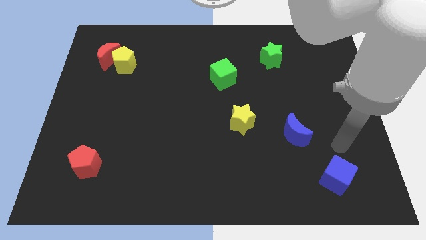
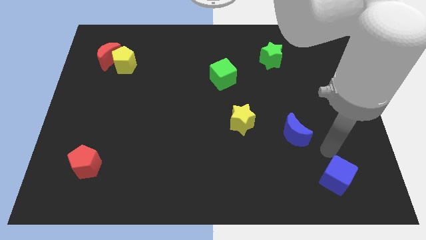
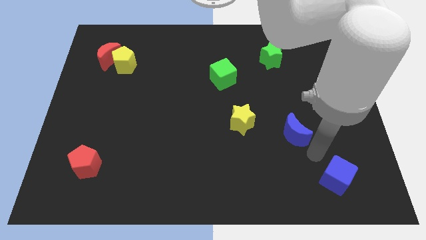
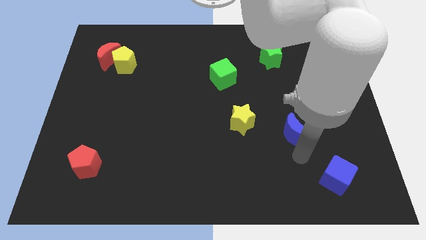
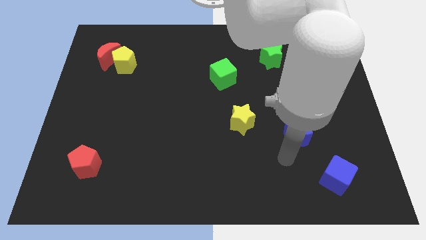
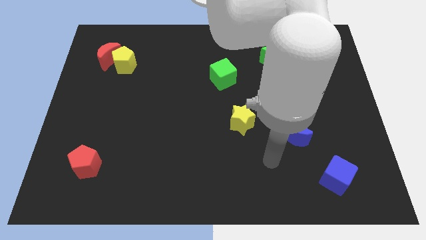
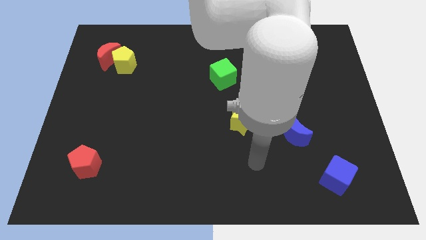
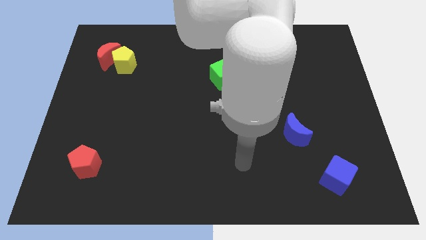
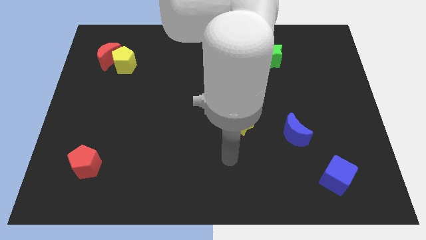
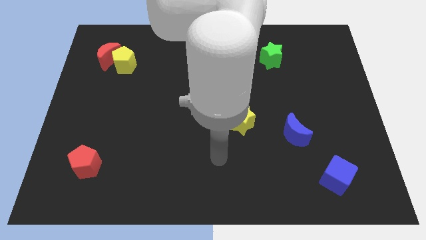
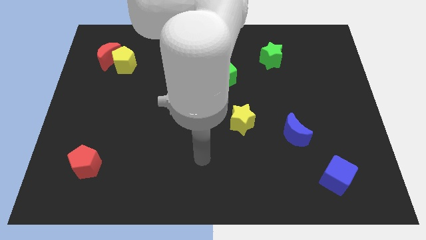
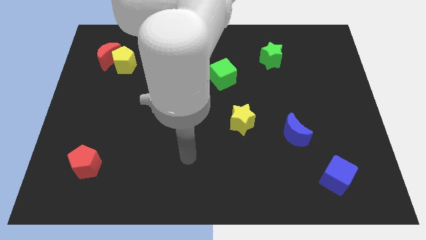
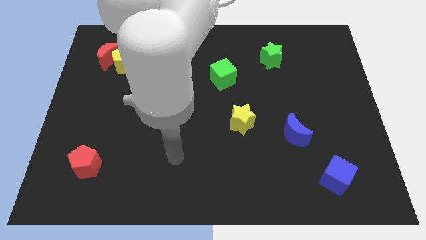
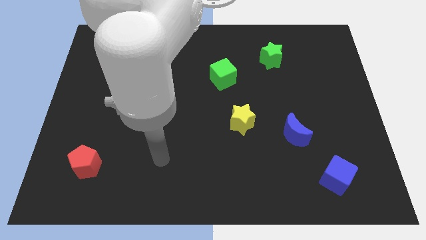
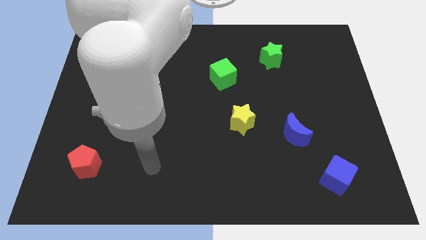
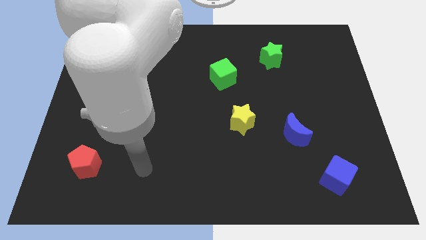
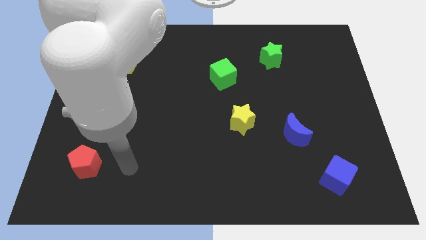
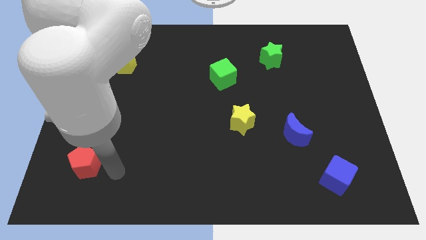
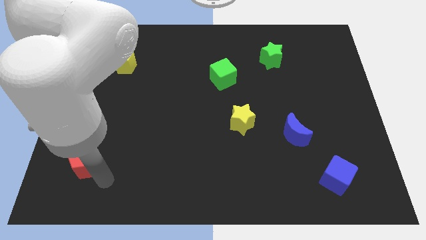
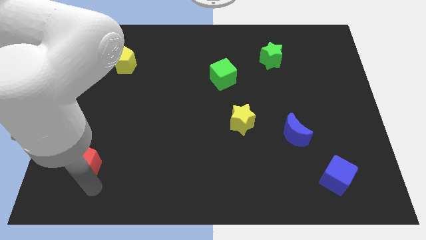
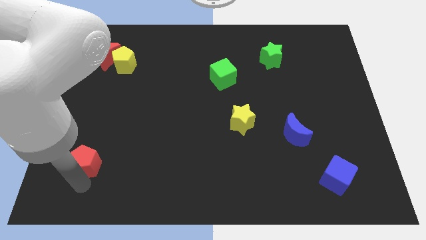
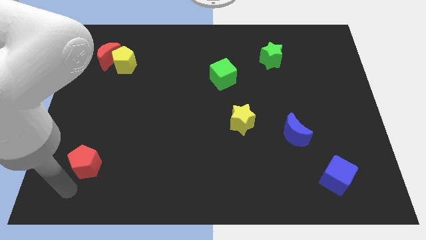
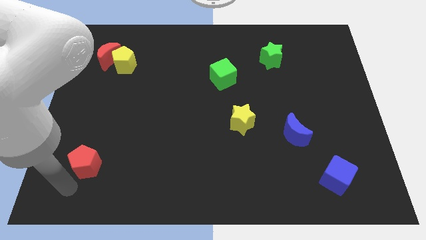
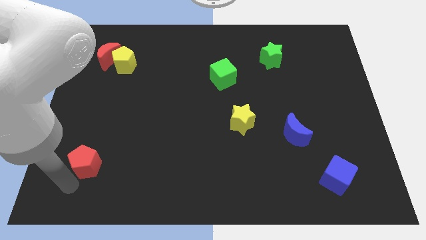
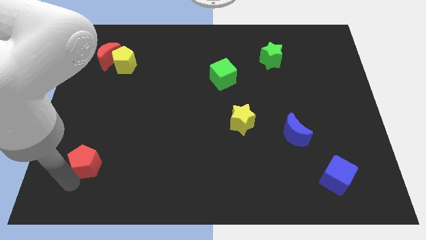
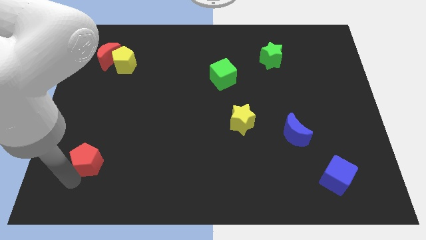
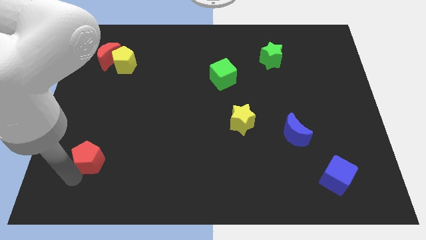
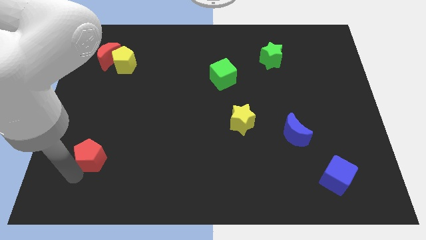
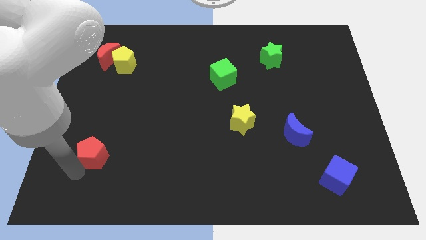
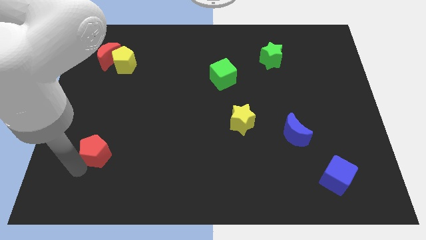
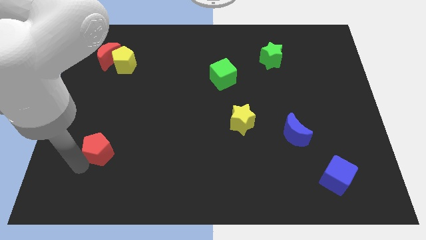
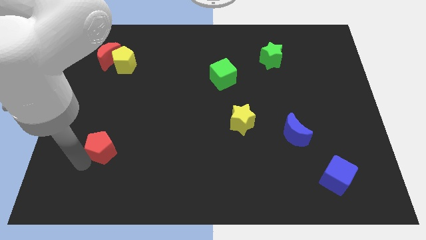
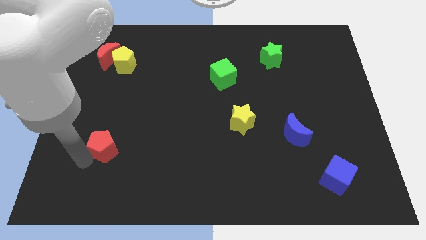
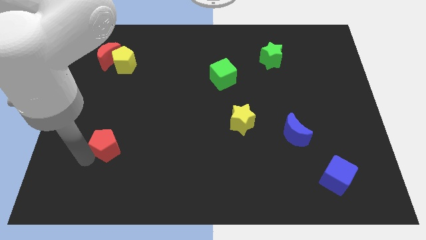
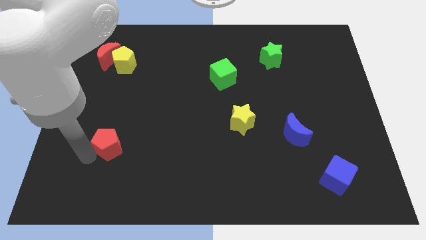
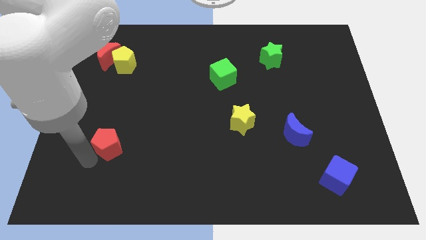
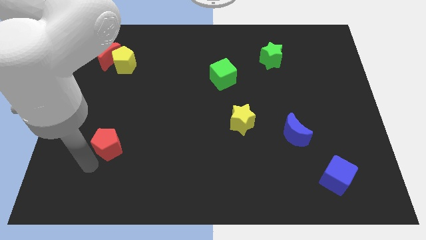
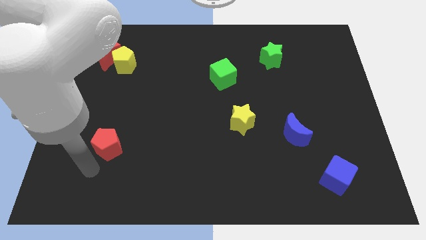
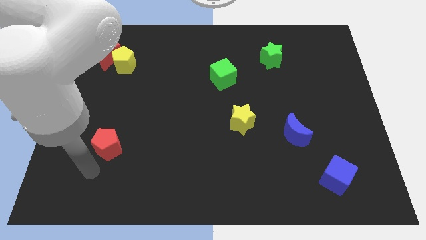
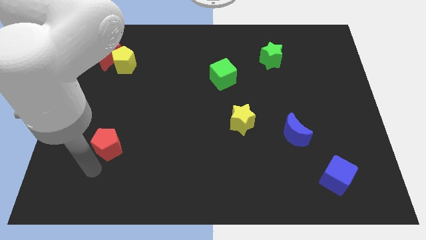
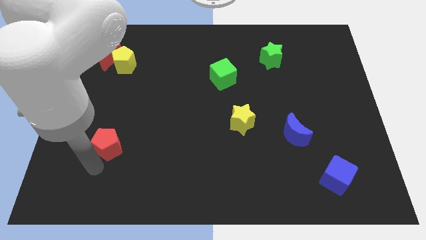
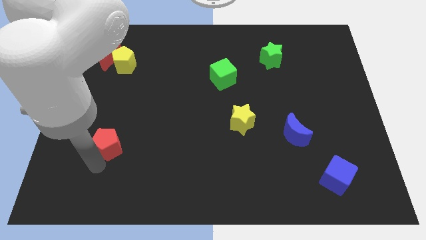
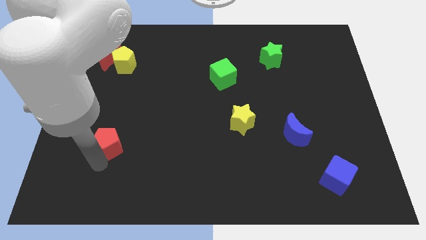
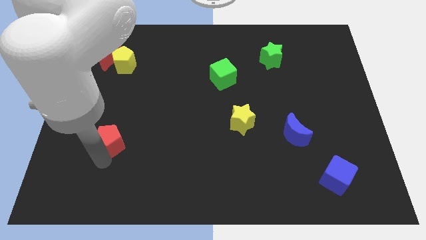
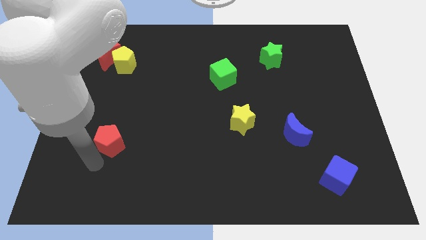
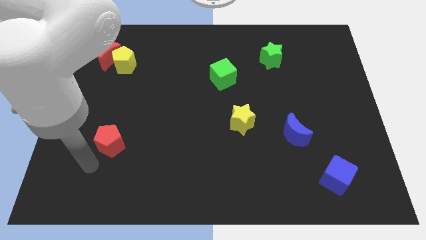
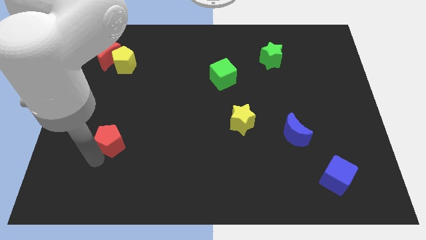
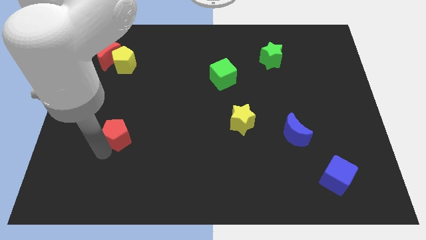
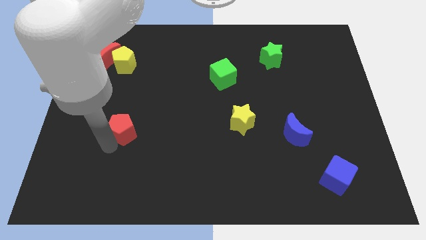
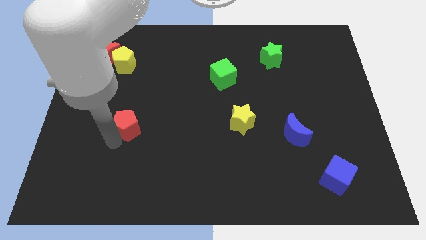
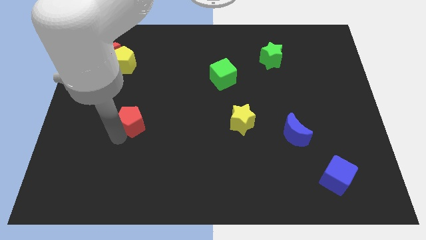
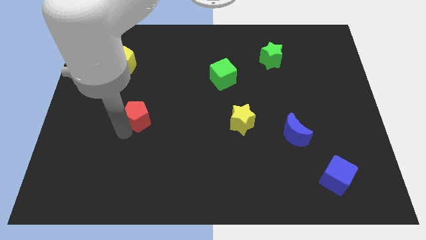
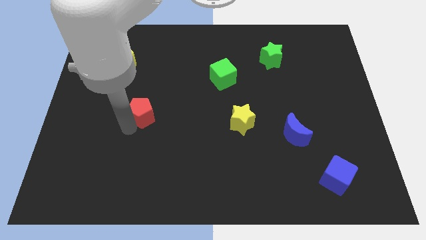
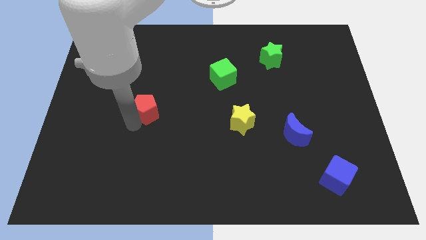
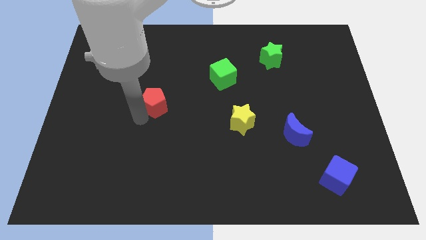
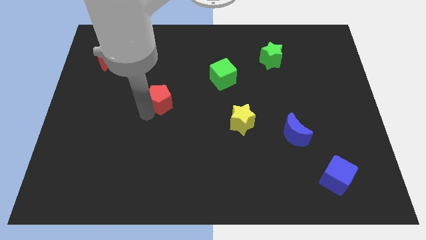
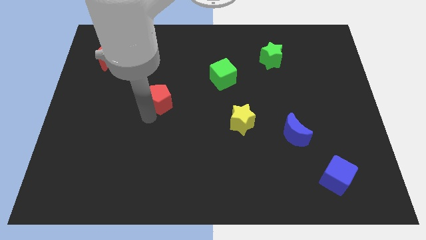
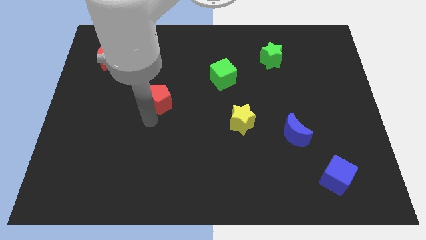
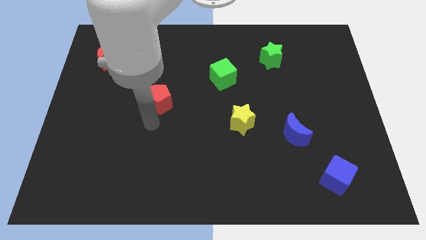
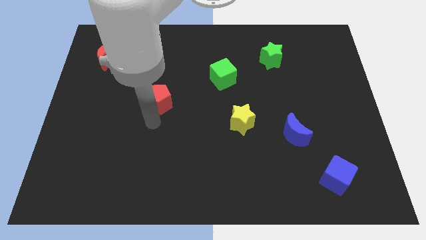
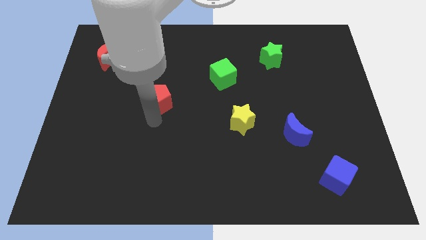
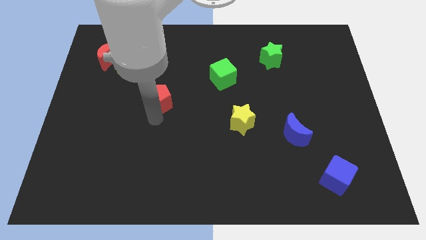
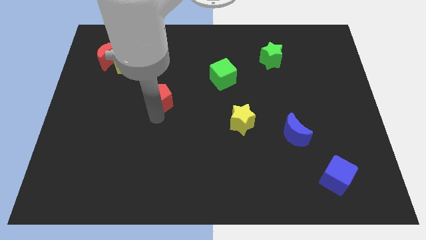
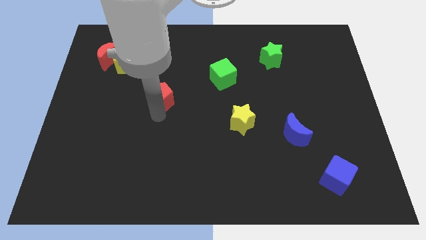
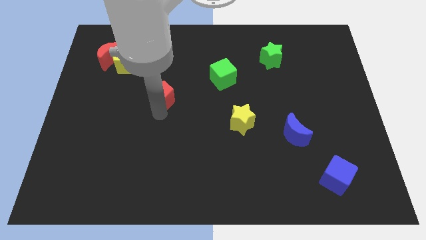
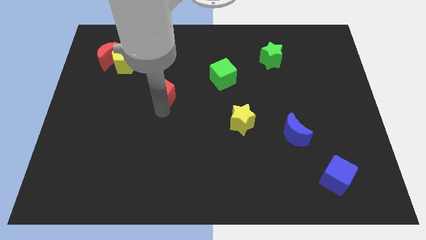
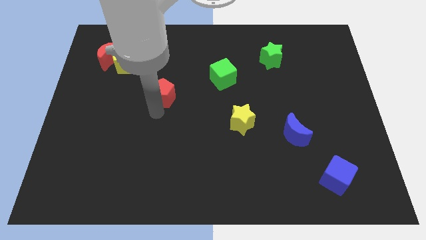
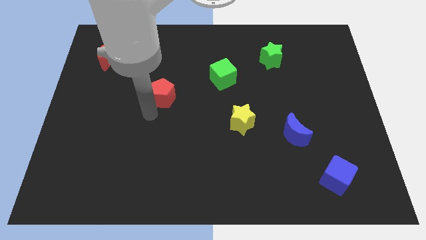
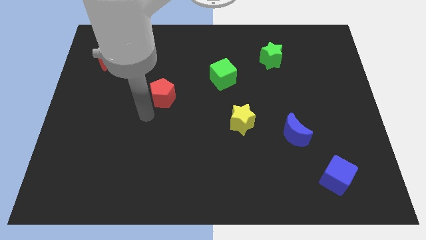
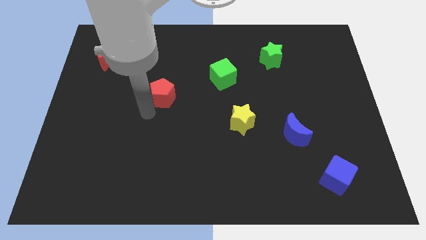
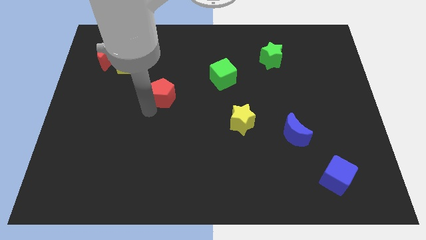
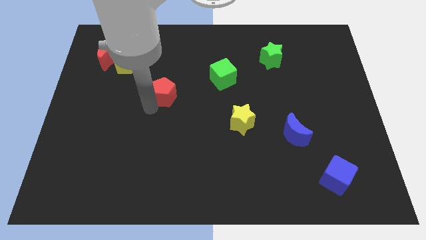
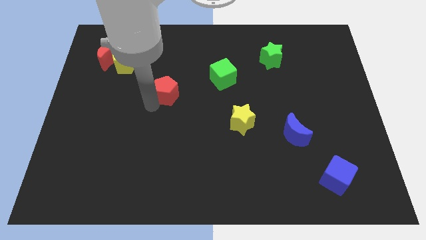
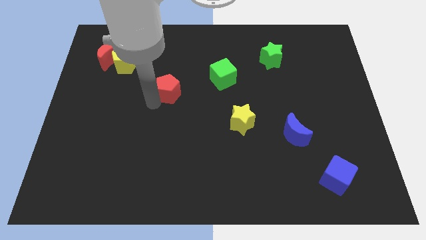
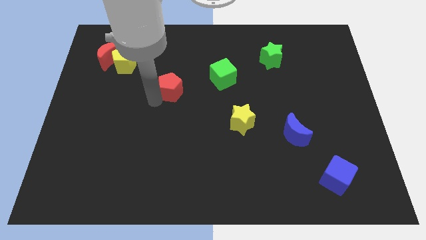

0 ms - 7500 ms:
move the red pentagon just left of the green cube
